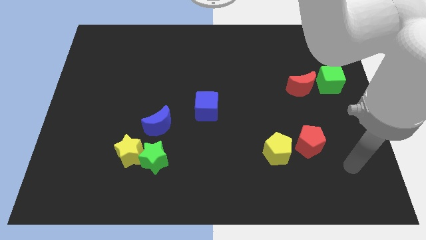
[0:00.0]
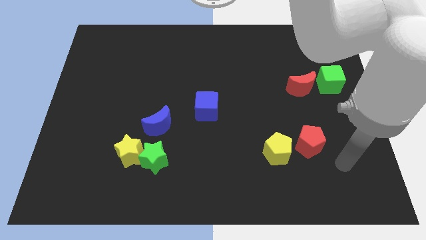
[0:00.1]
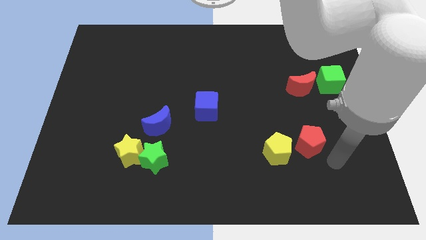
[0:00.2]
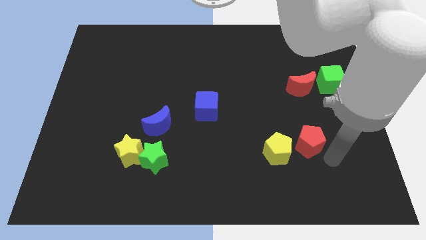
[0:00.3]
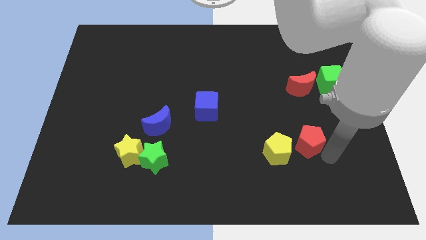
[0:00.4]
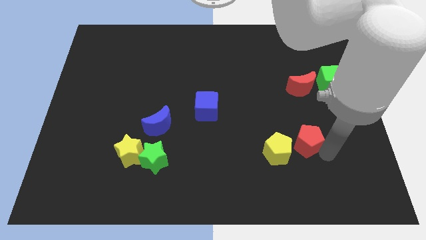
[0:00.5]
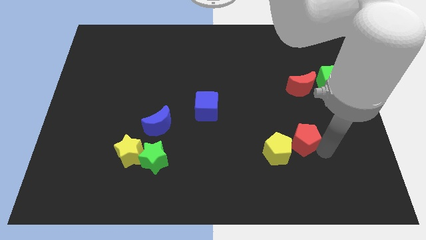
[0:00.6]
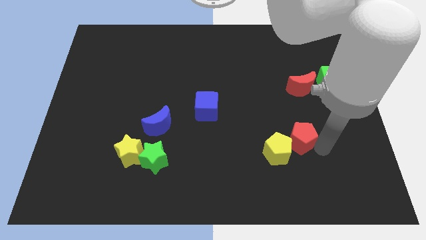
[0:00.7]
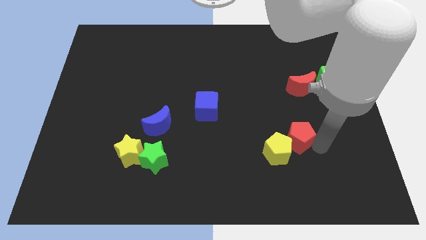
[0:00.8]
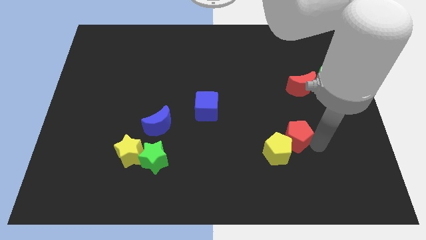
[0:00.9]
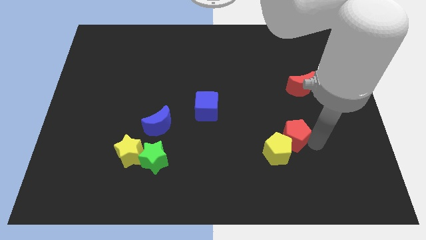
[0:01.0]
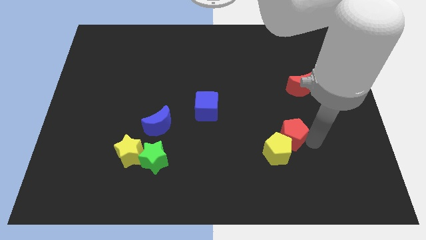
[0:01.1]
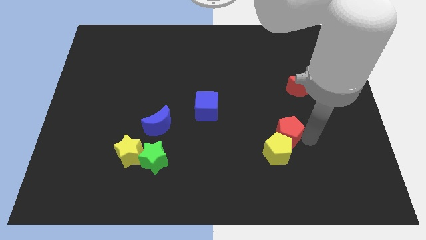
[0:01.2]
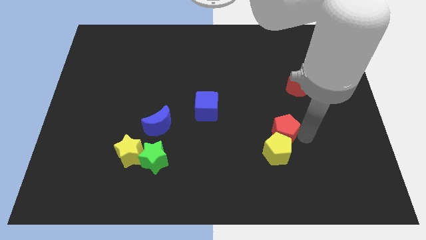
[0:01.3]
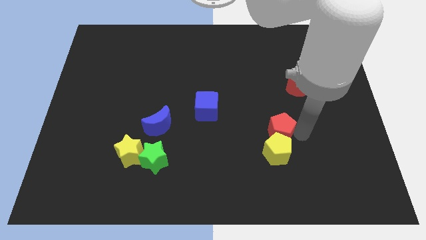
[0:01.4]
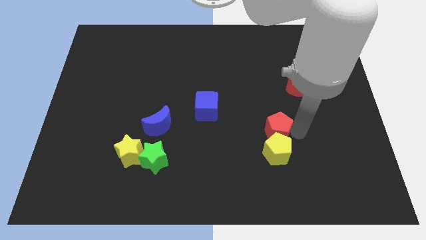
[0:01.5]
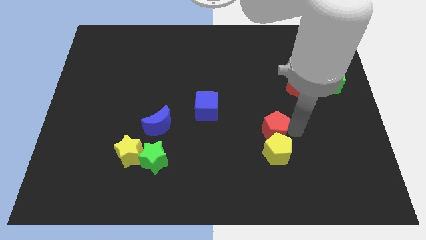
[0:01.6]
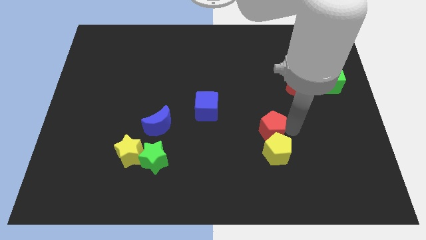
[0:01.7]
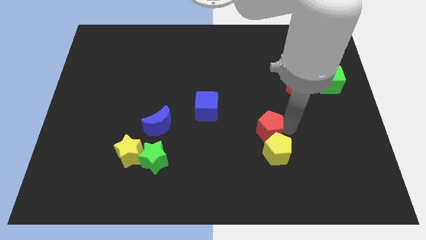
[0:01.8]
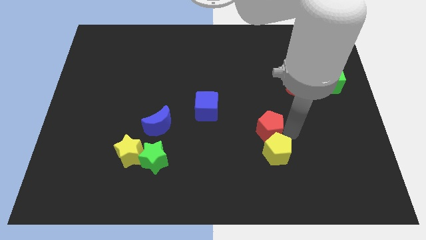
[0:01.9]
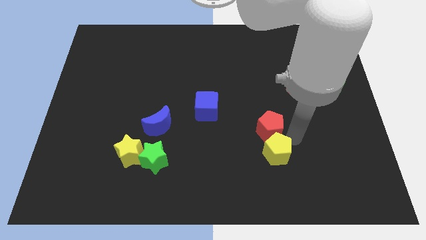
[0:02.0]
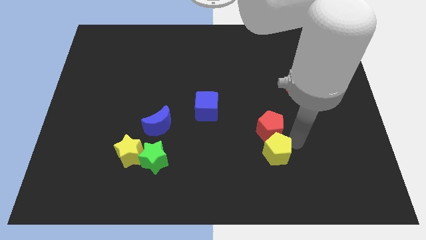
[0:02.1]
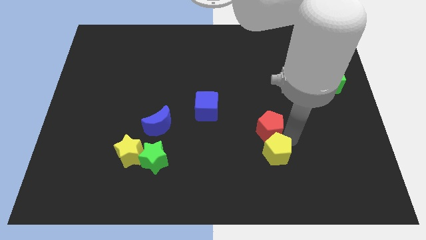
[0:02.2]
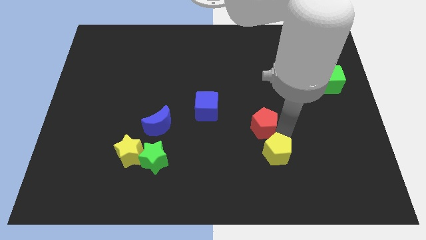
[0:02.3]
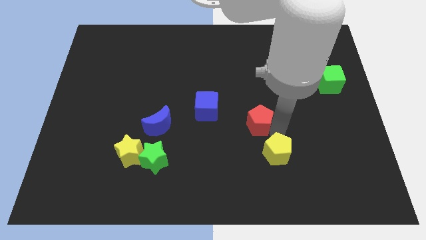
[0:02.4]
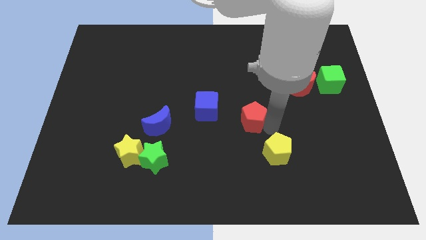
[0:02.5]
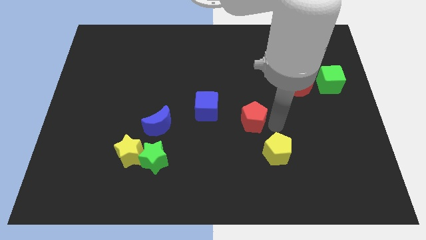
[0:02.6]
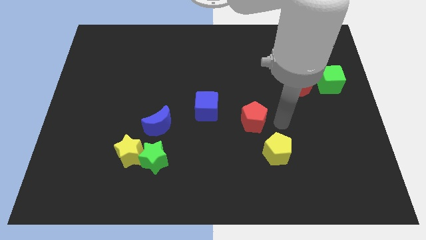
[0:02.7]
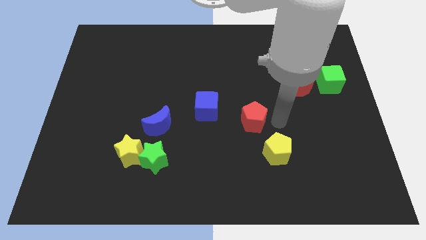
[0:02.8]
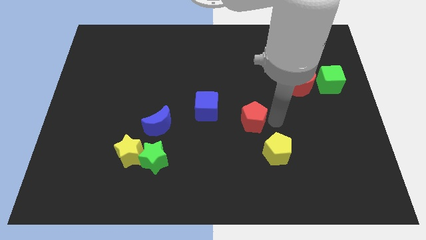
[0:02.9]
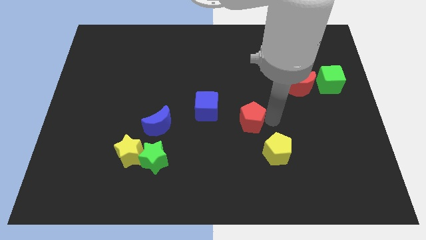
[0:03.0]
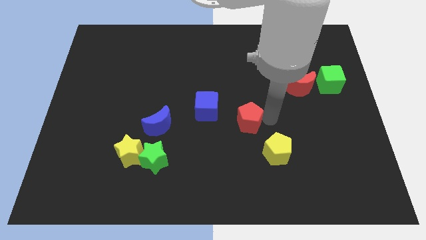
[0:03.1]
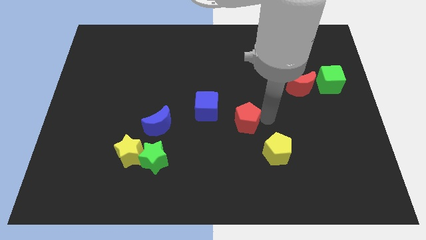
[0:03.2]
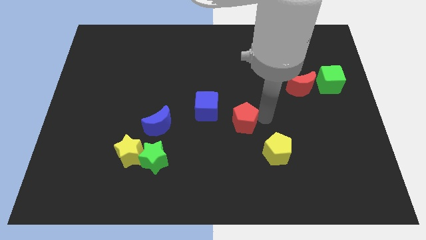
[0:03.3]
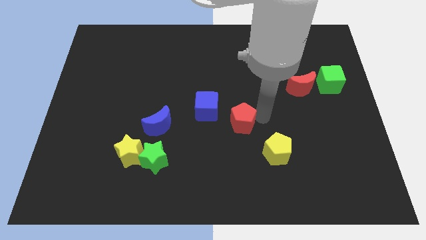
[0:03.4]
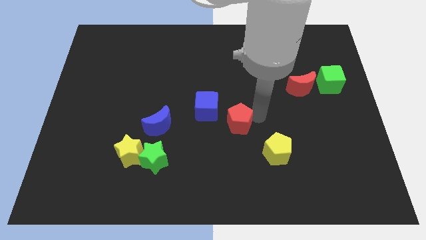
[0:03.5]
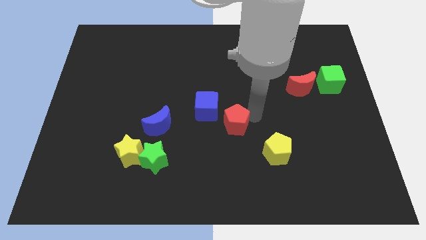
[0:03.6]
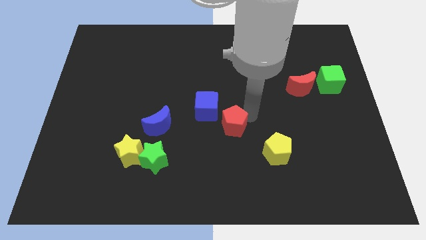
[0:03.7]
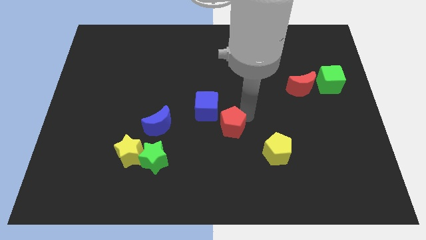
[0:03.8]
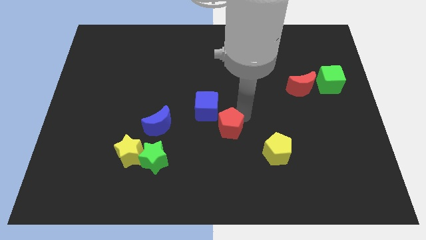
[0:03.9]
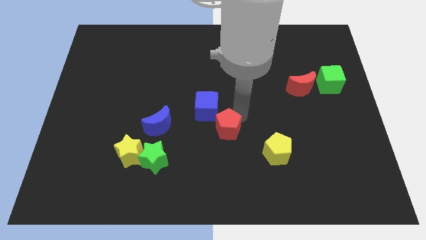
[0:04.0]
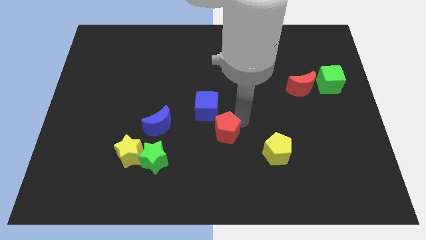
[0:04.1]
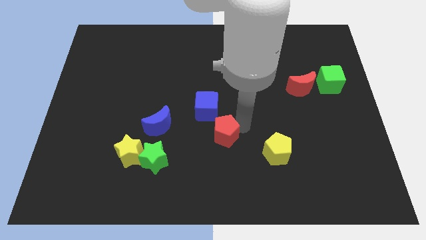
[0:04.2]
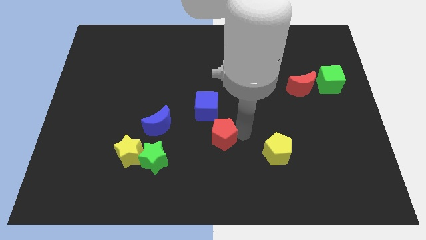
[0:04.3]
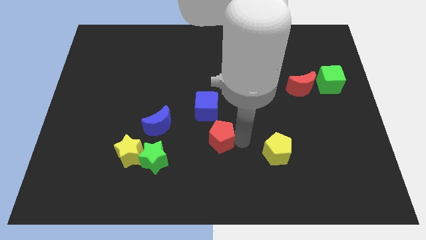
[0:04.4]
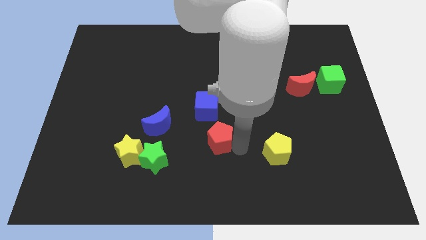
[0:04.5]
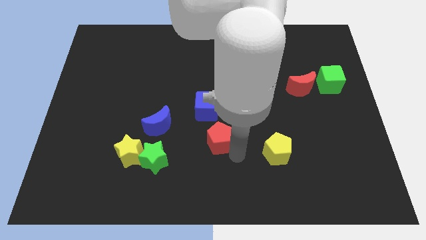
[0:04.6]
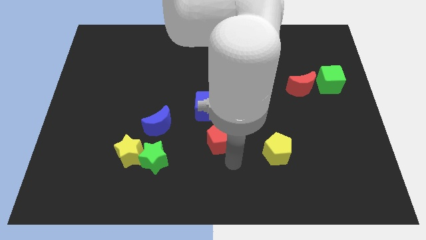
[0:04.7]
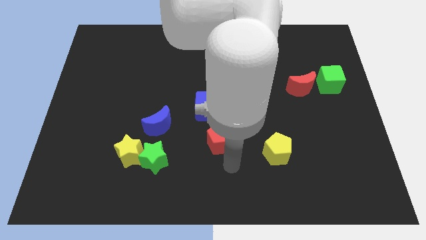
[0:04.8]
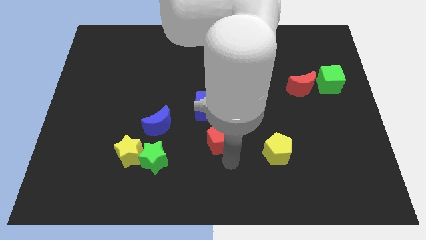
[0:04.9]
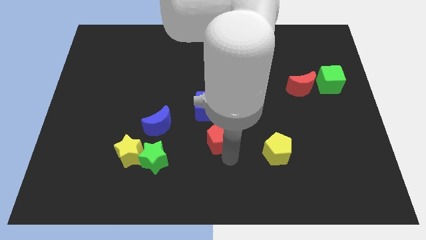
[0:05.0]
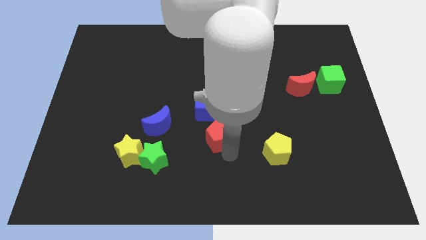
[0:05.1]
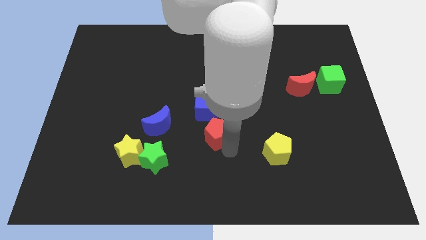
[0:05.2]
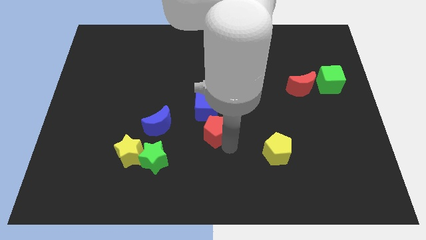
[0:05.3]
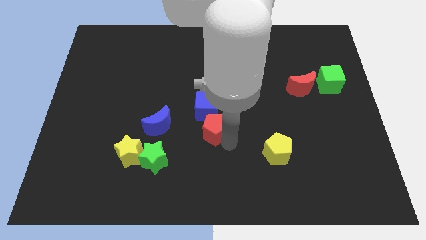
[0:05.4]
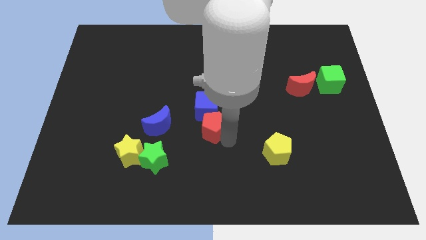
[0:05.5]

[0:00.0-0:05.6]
push the red pentagon towards the blue cube

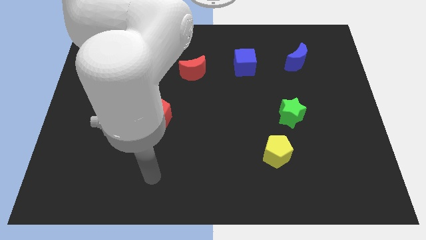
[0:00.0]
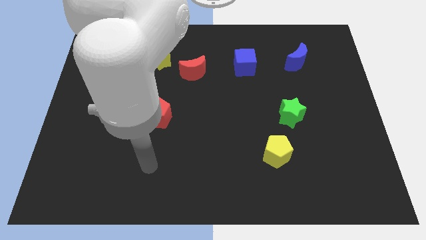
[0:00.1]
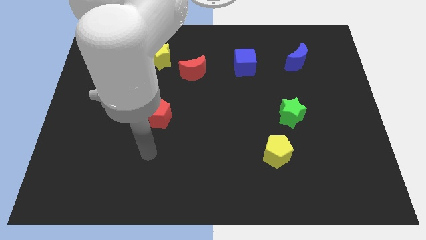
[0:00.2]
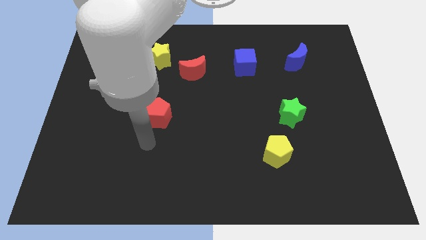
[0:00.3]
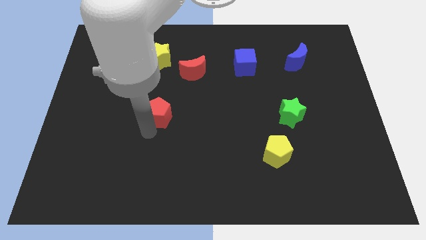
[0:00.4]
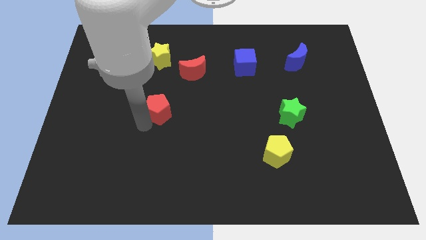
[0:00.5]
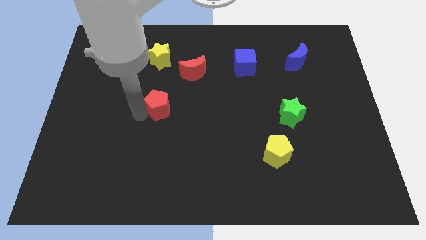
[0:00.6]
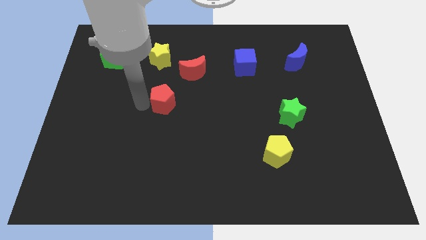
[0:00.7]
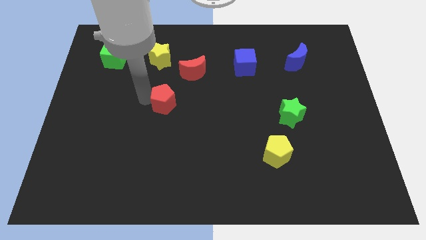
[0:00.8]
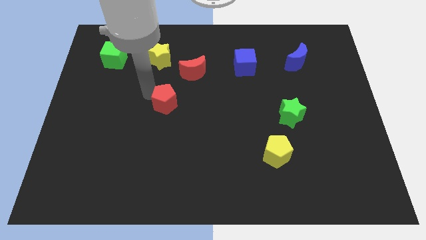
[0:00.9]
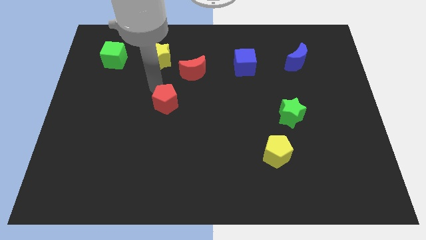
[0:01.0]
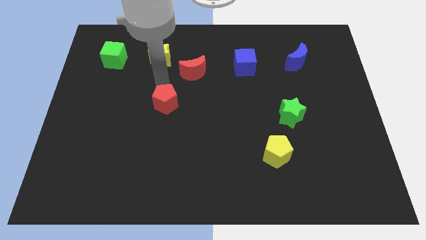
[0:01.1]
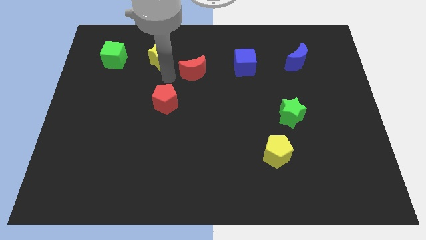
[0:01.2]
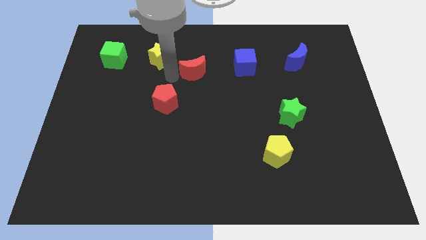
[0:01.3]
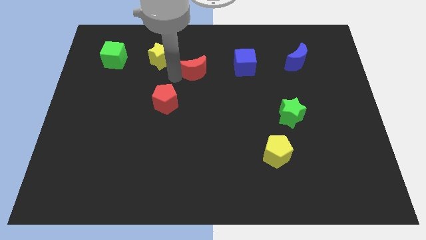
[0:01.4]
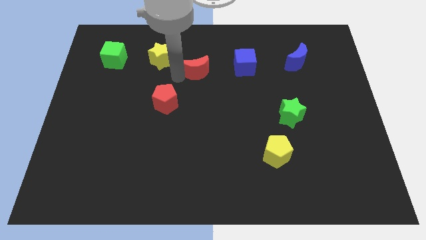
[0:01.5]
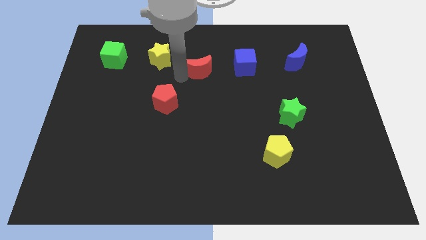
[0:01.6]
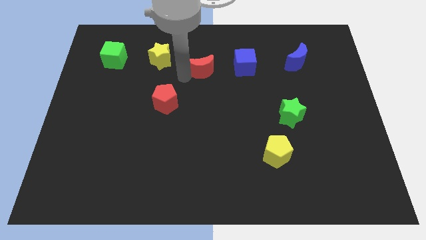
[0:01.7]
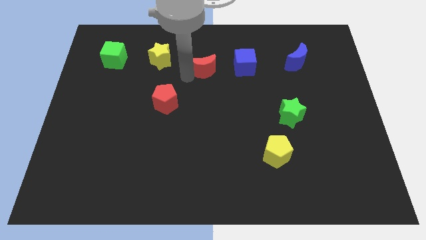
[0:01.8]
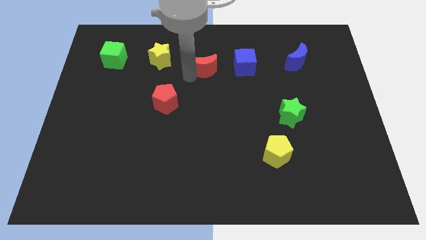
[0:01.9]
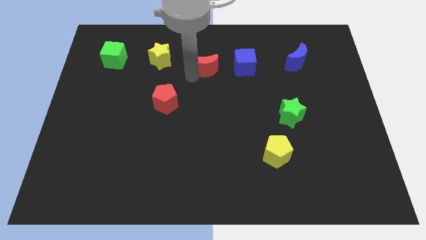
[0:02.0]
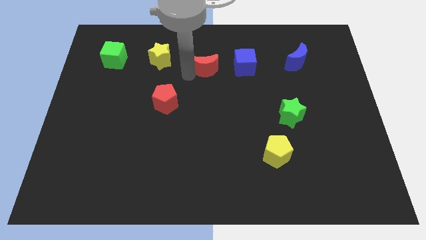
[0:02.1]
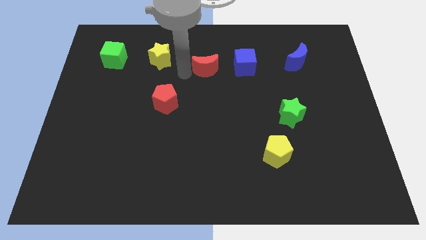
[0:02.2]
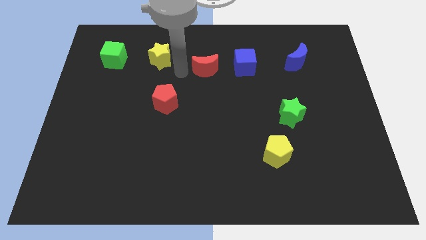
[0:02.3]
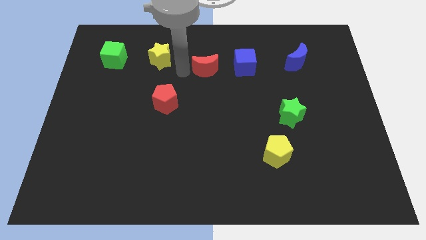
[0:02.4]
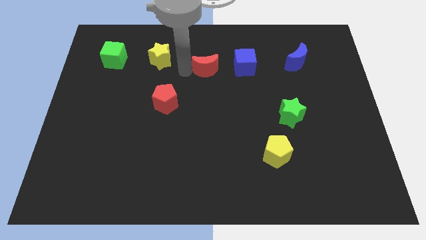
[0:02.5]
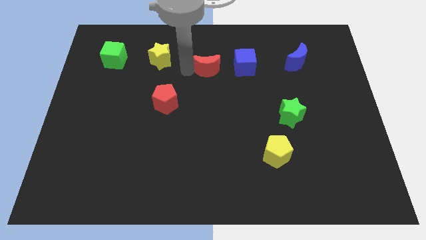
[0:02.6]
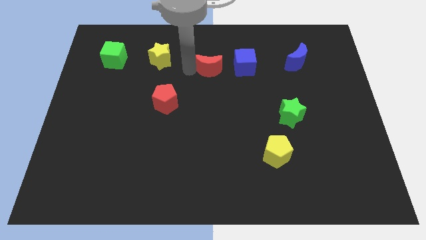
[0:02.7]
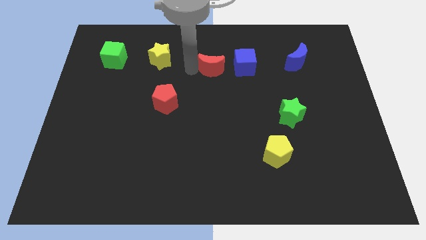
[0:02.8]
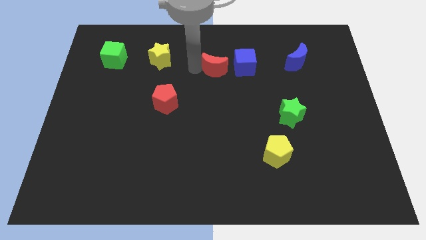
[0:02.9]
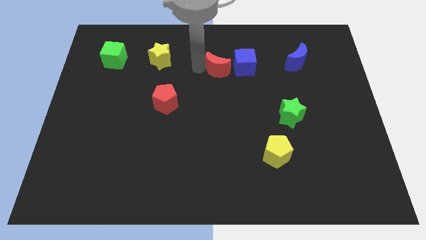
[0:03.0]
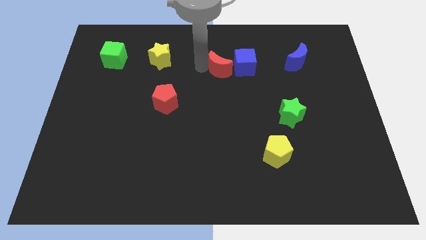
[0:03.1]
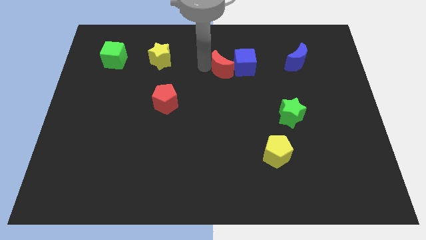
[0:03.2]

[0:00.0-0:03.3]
move the red moon close to the blue cube
